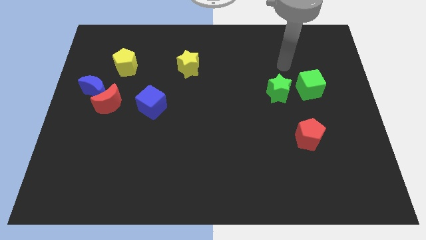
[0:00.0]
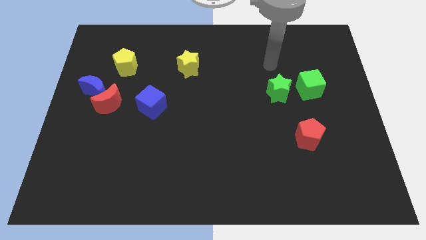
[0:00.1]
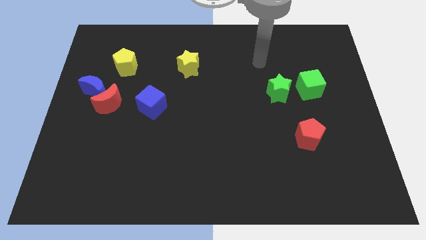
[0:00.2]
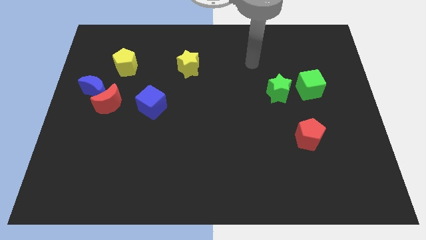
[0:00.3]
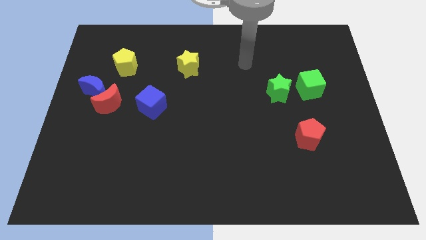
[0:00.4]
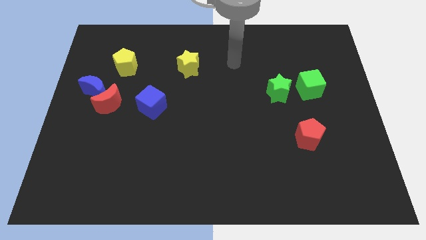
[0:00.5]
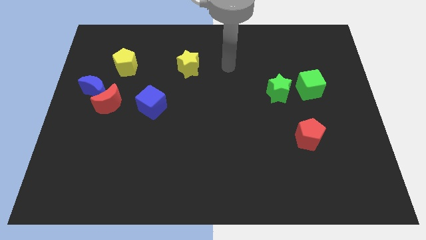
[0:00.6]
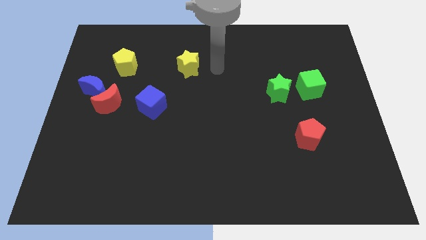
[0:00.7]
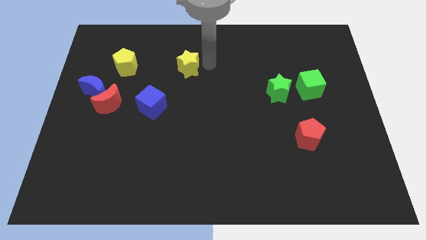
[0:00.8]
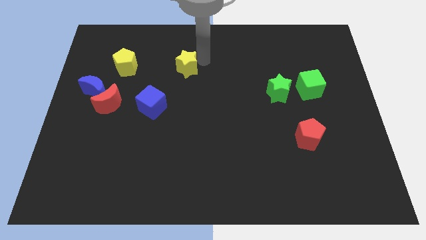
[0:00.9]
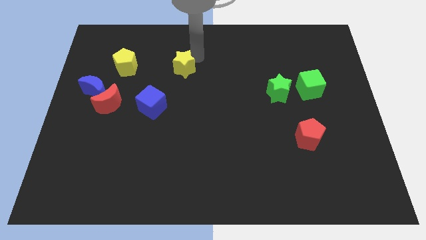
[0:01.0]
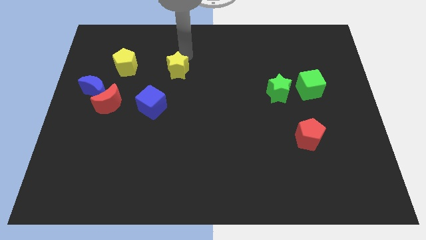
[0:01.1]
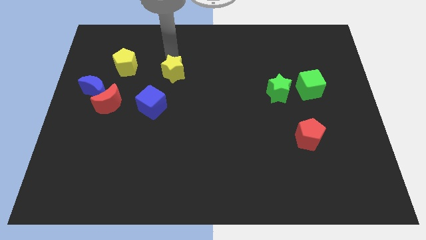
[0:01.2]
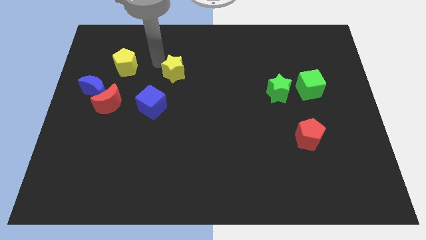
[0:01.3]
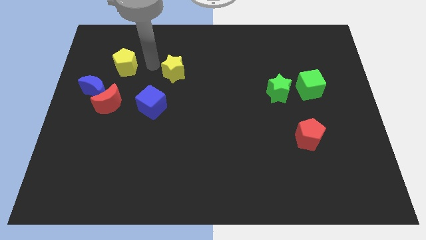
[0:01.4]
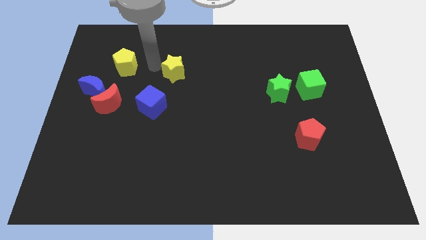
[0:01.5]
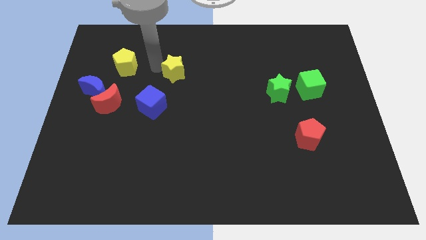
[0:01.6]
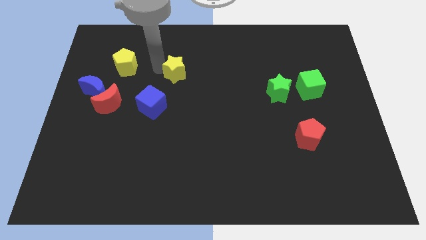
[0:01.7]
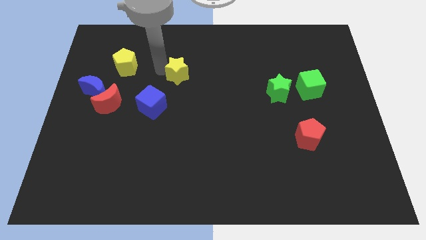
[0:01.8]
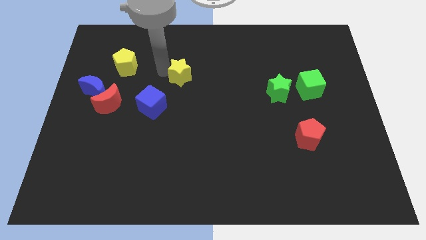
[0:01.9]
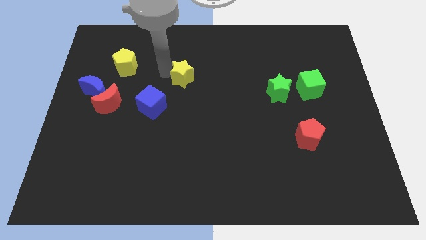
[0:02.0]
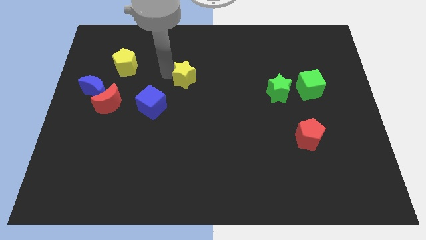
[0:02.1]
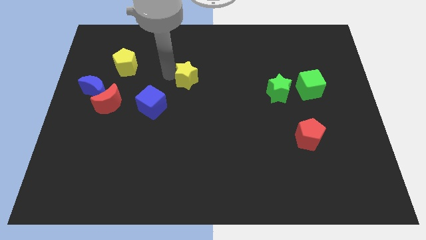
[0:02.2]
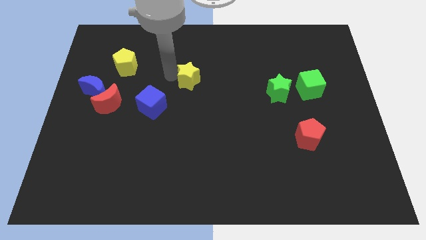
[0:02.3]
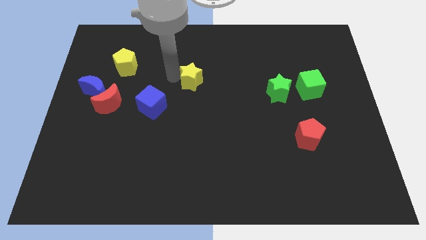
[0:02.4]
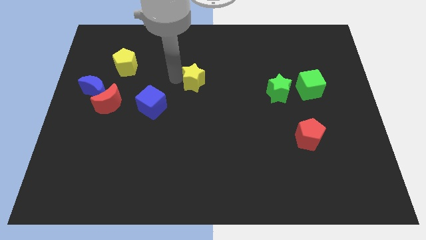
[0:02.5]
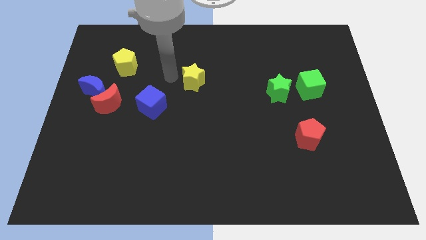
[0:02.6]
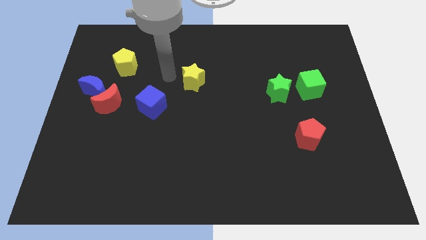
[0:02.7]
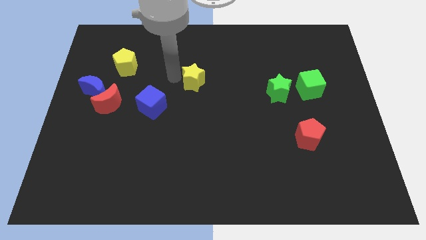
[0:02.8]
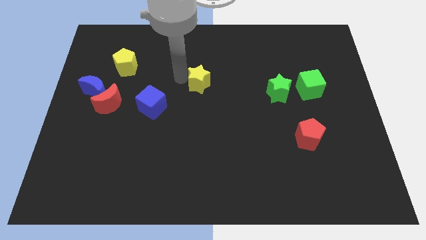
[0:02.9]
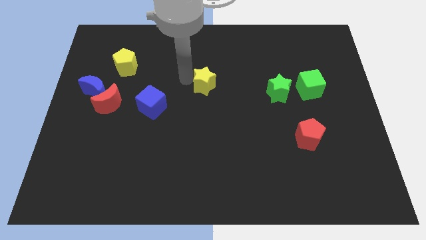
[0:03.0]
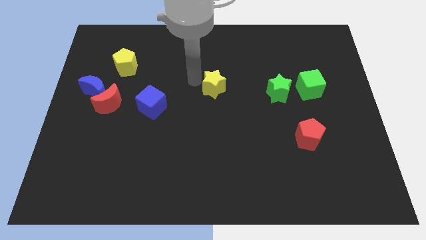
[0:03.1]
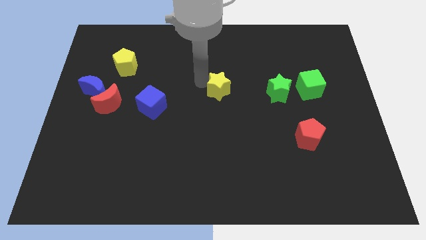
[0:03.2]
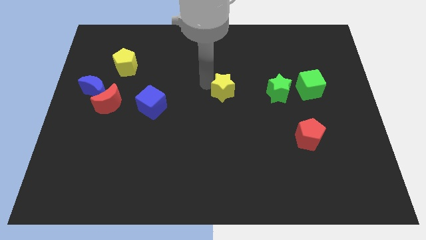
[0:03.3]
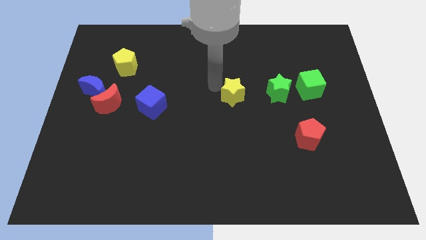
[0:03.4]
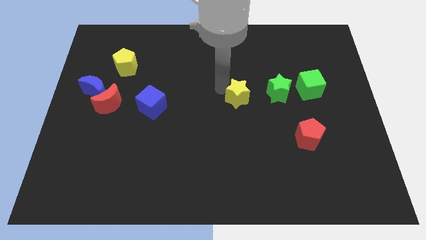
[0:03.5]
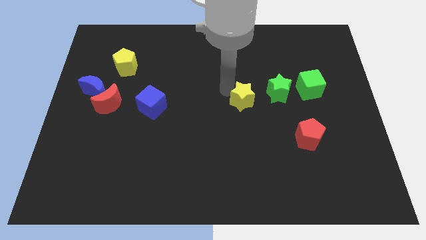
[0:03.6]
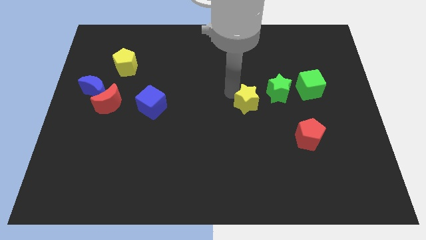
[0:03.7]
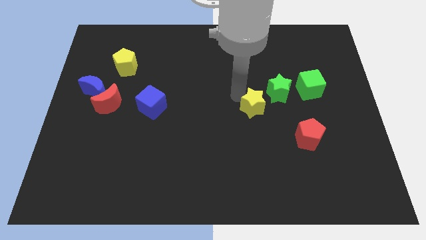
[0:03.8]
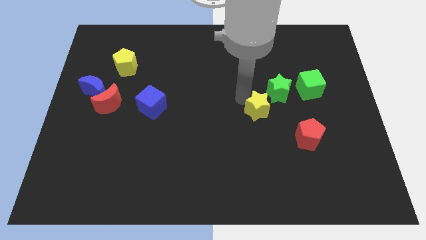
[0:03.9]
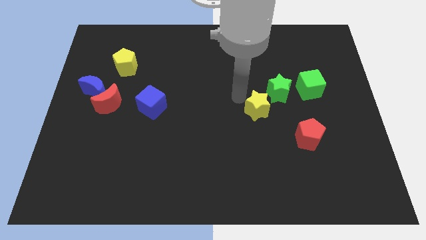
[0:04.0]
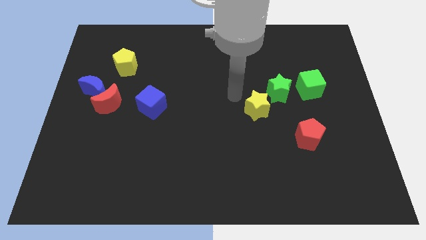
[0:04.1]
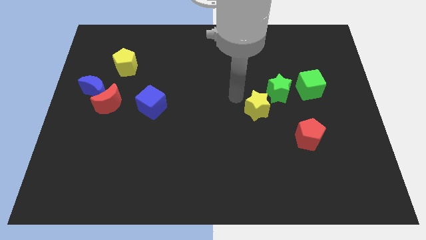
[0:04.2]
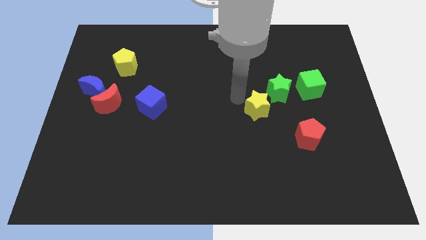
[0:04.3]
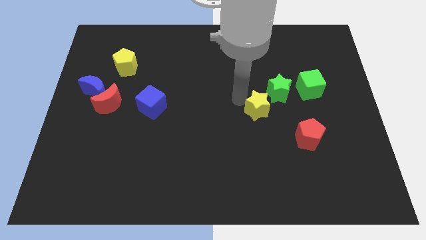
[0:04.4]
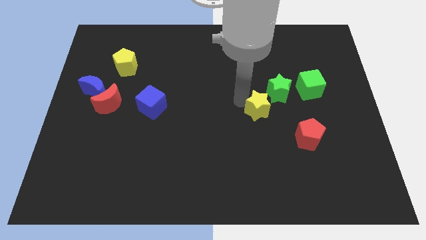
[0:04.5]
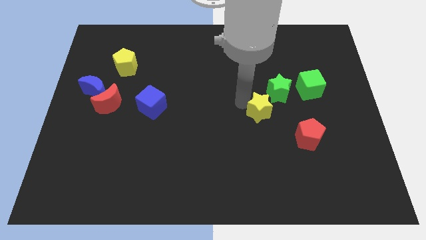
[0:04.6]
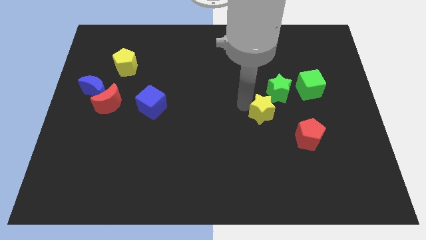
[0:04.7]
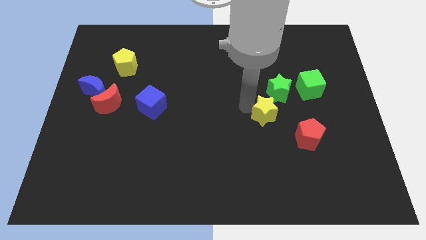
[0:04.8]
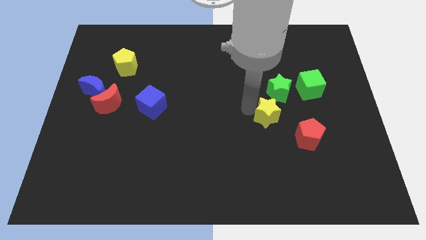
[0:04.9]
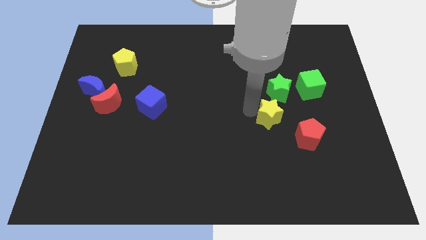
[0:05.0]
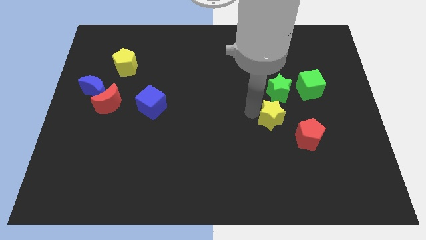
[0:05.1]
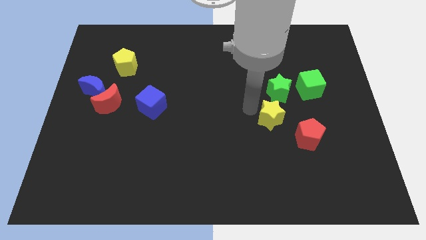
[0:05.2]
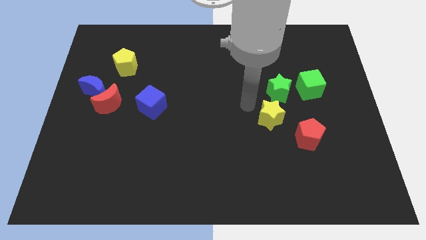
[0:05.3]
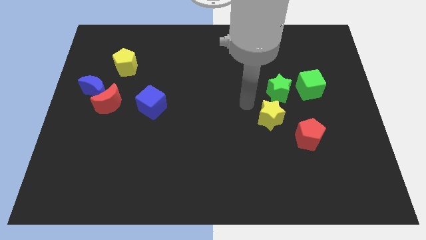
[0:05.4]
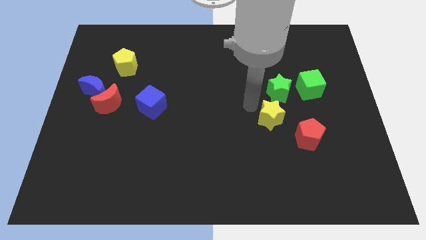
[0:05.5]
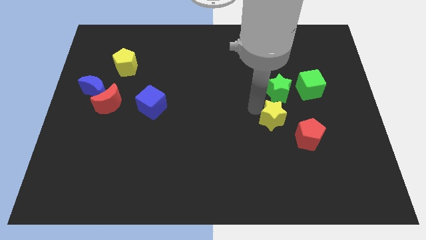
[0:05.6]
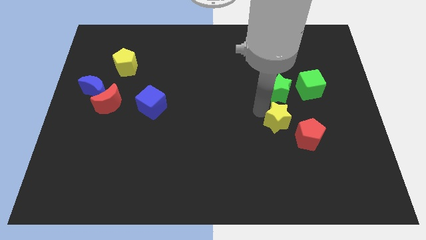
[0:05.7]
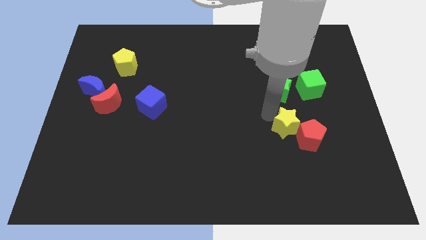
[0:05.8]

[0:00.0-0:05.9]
push the yellow star close to the red pentagon

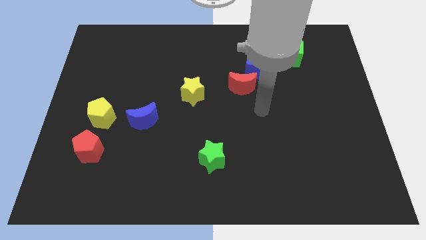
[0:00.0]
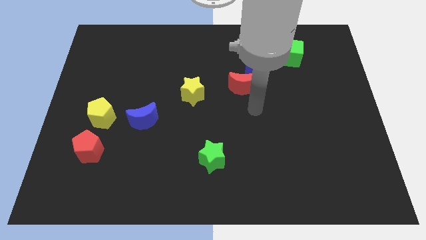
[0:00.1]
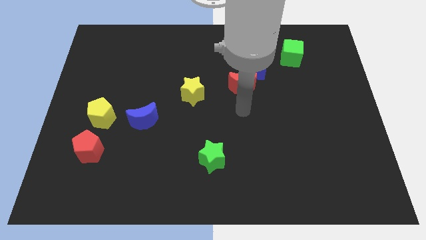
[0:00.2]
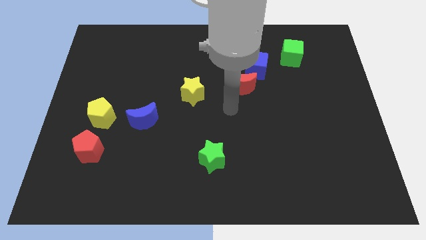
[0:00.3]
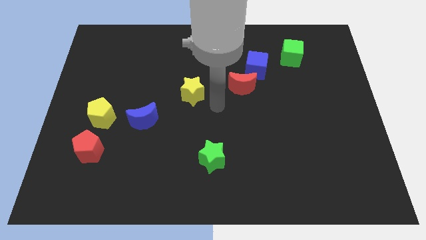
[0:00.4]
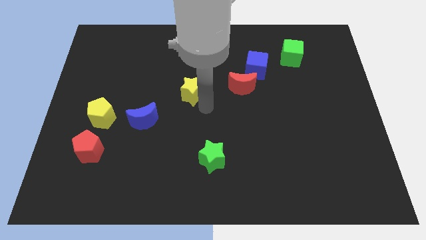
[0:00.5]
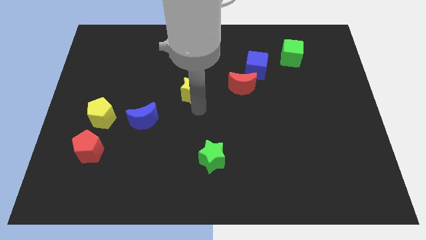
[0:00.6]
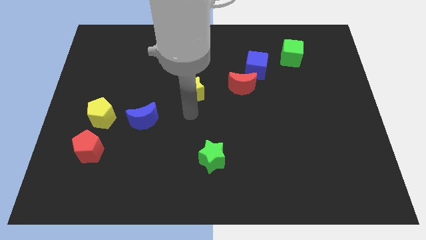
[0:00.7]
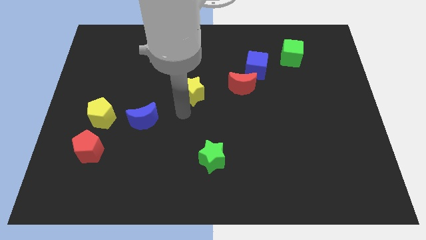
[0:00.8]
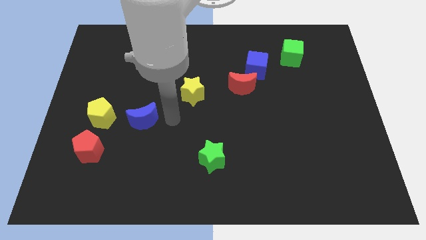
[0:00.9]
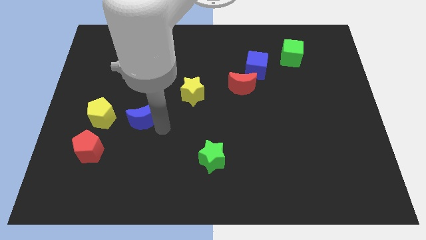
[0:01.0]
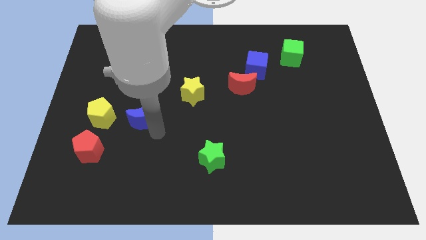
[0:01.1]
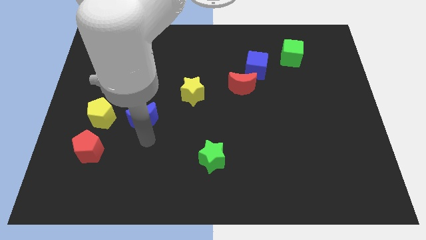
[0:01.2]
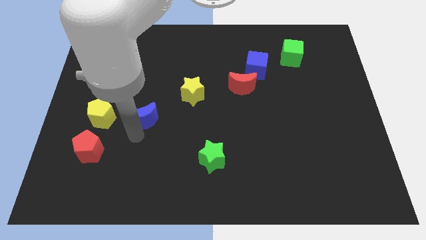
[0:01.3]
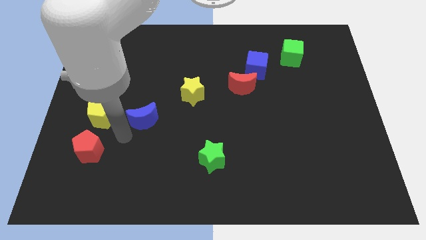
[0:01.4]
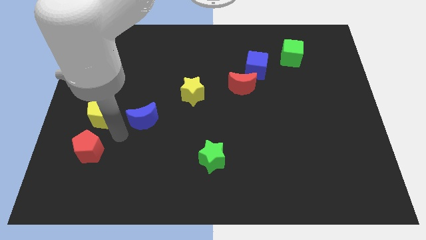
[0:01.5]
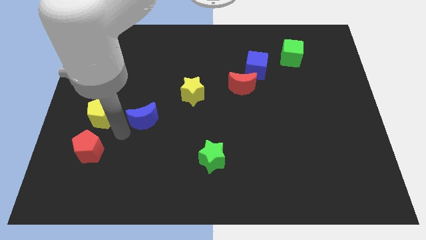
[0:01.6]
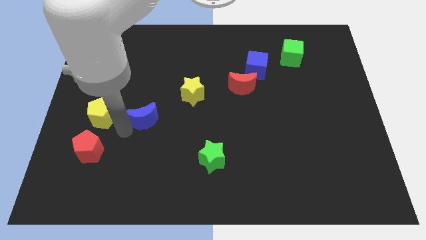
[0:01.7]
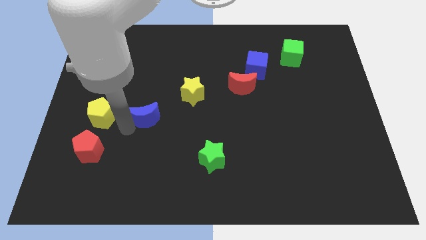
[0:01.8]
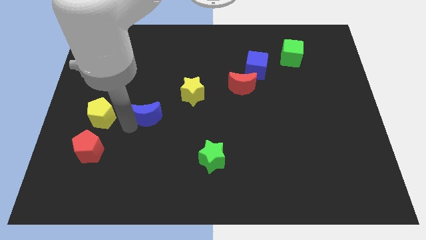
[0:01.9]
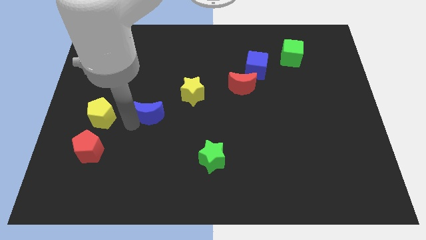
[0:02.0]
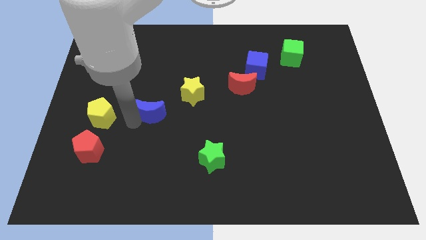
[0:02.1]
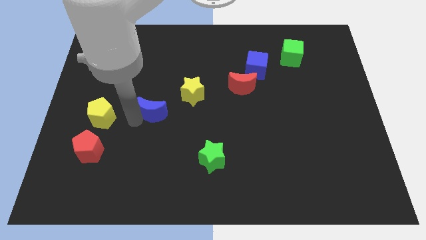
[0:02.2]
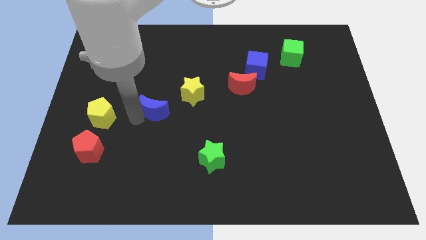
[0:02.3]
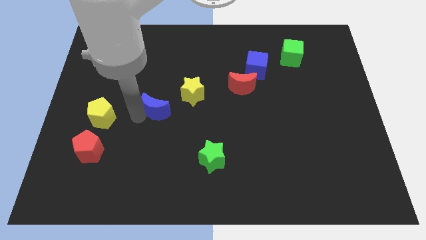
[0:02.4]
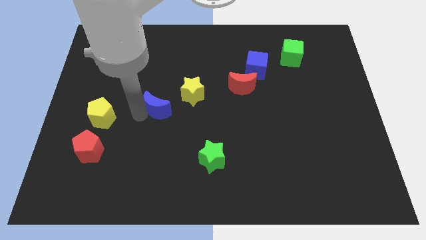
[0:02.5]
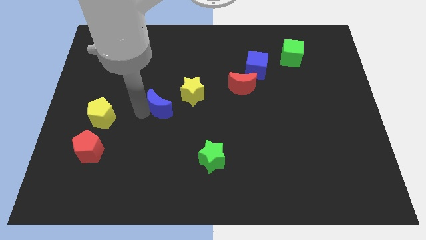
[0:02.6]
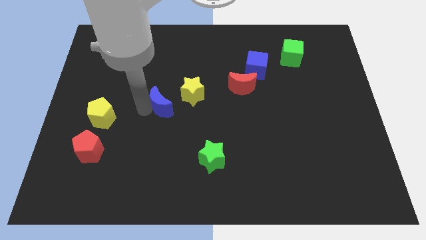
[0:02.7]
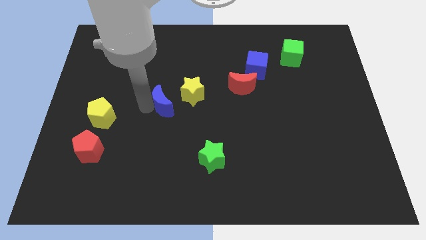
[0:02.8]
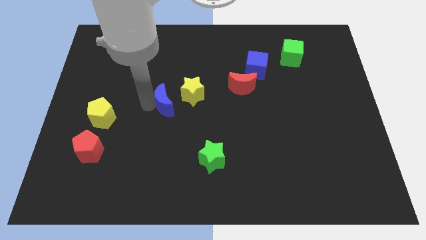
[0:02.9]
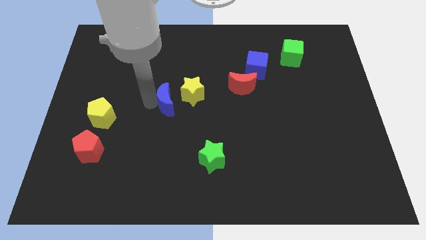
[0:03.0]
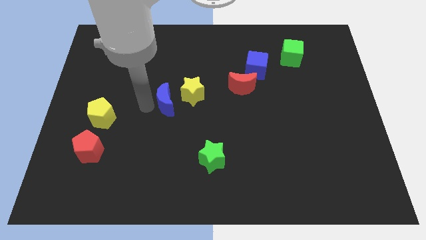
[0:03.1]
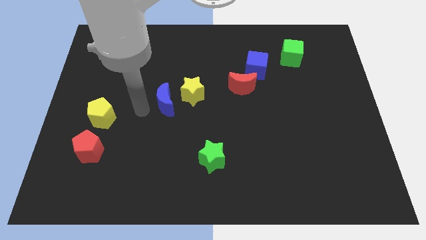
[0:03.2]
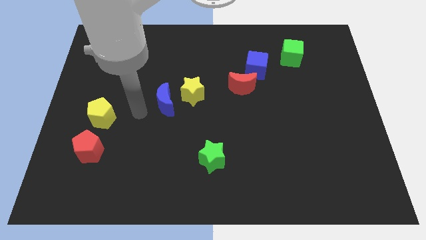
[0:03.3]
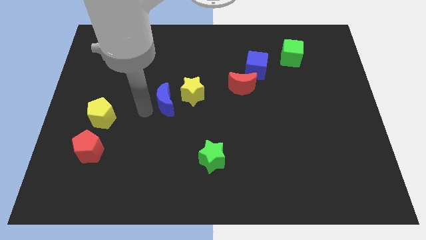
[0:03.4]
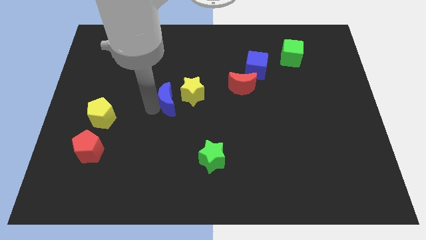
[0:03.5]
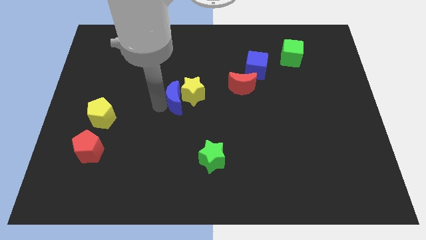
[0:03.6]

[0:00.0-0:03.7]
put the blue moon next to the yellow star
